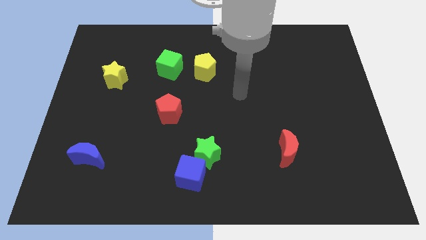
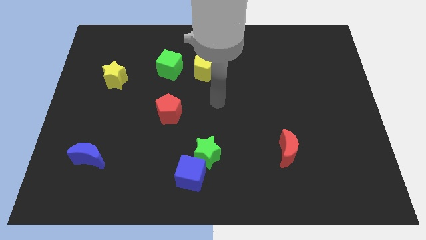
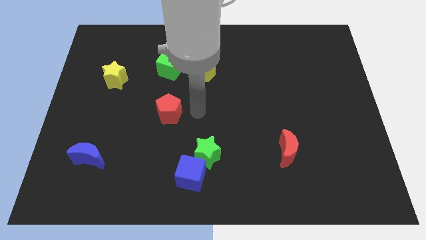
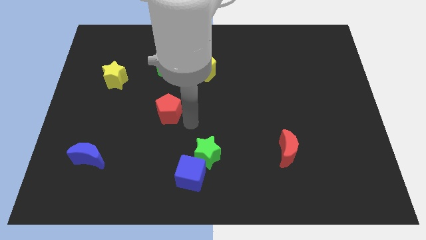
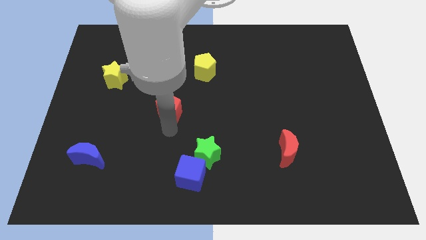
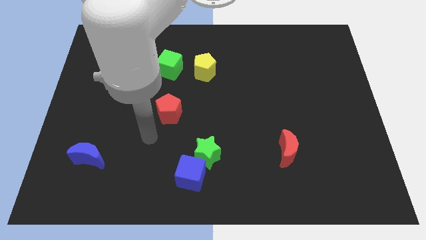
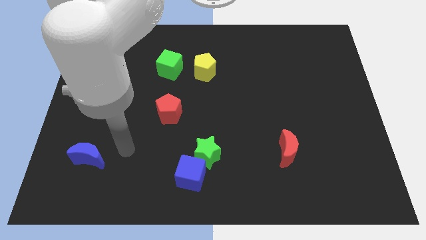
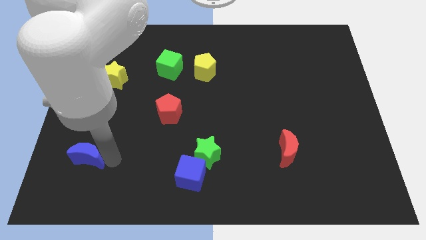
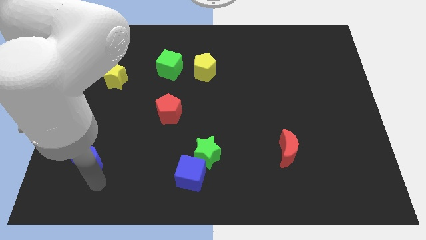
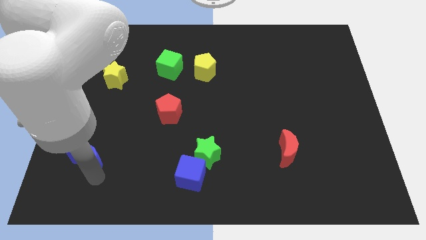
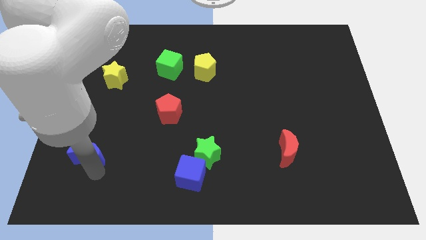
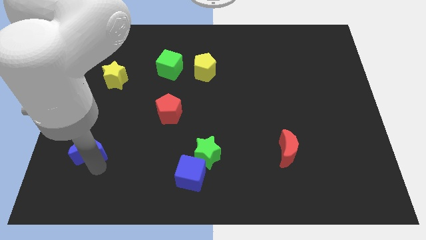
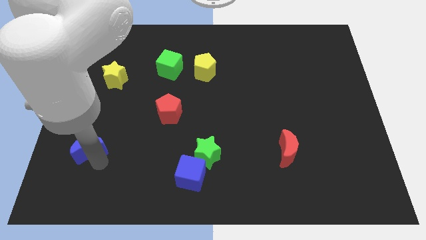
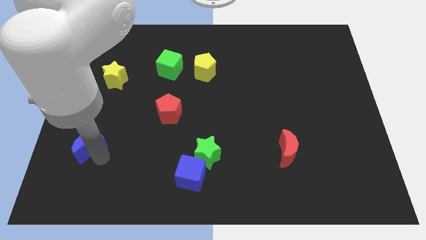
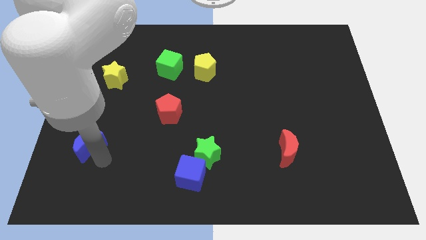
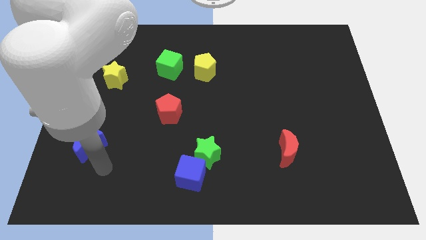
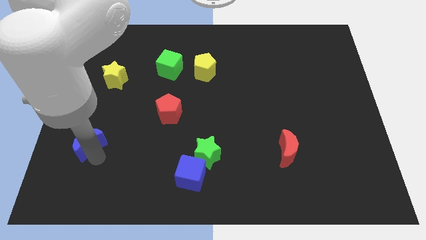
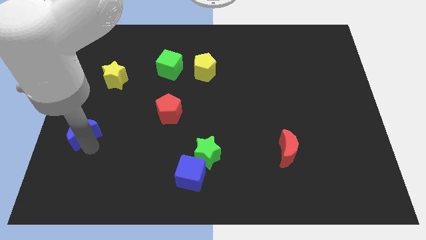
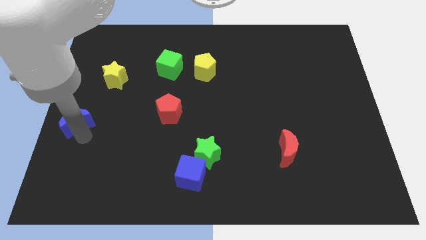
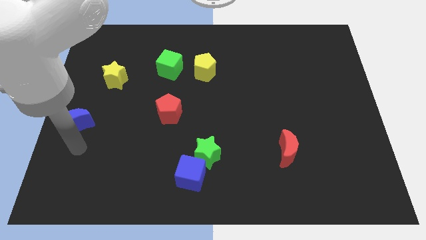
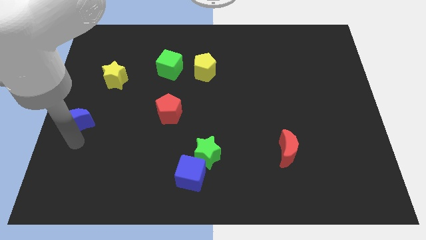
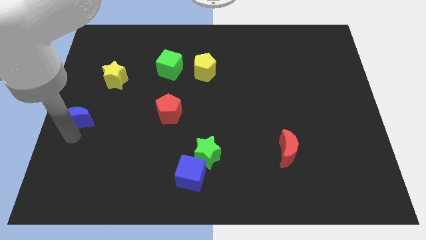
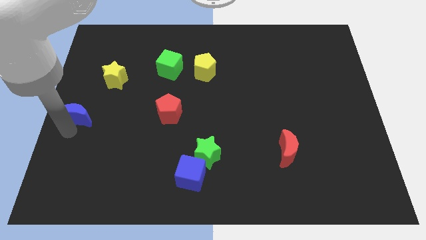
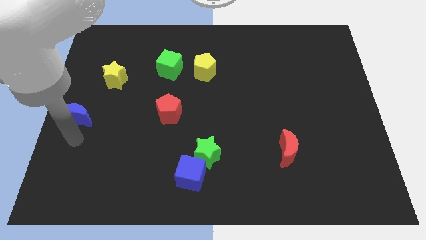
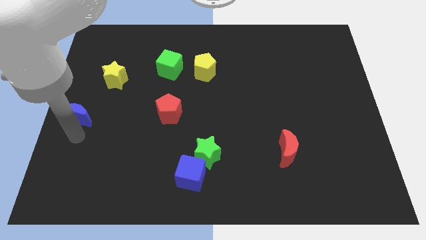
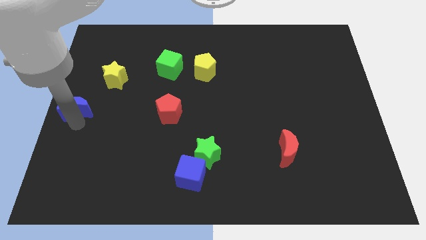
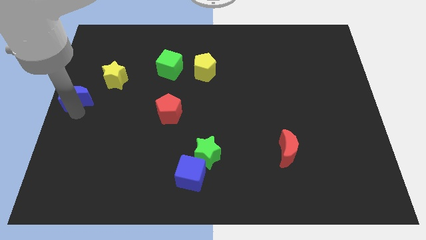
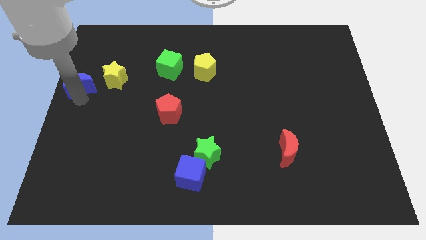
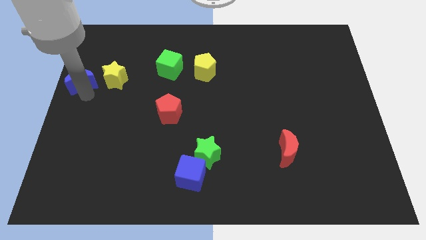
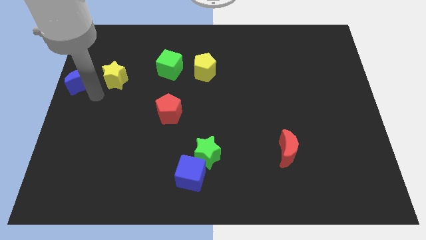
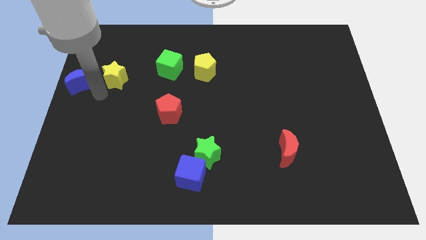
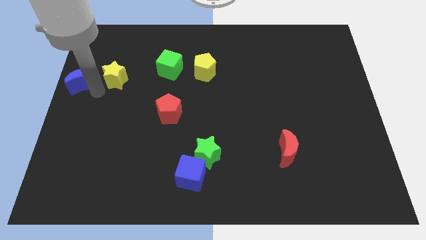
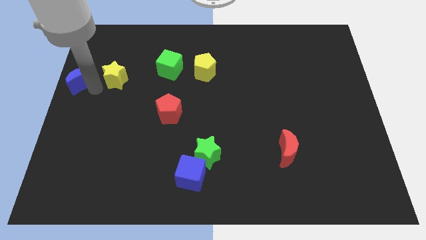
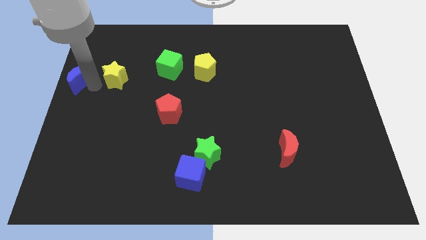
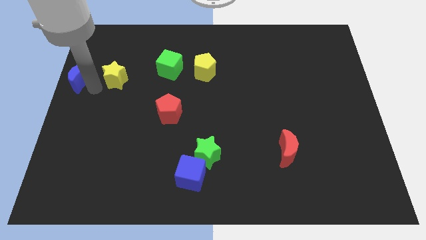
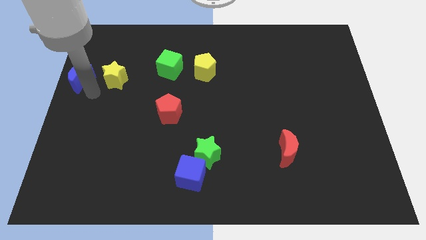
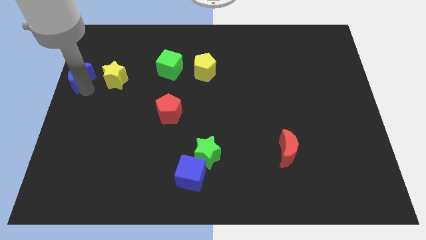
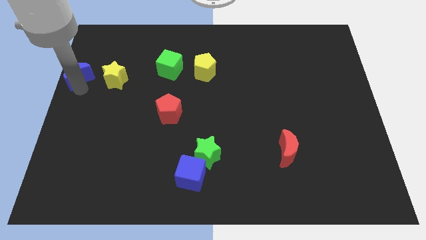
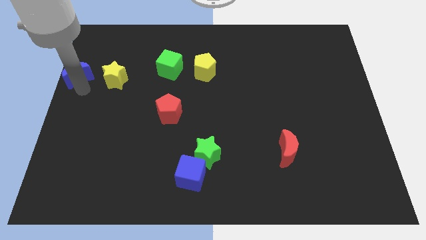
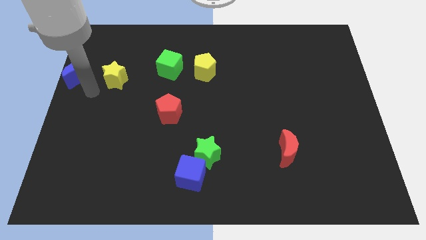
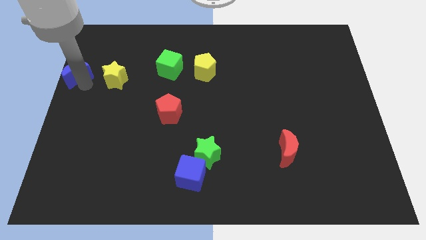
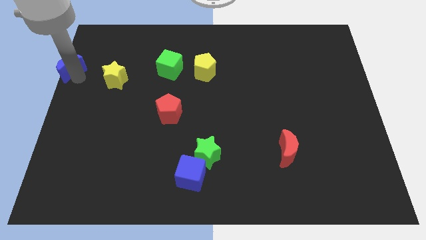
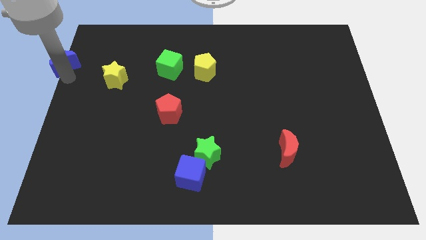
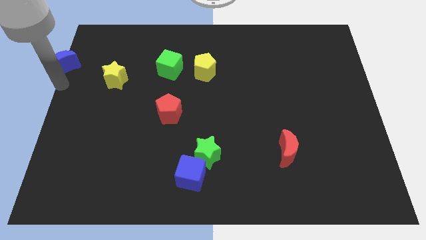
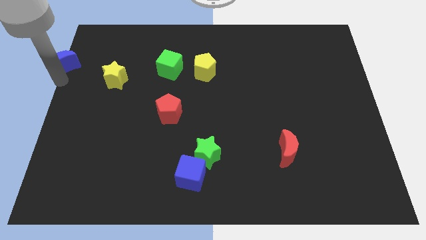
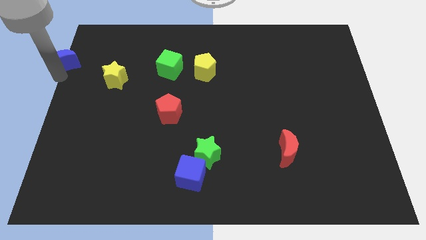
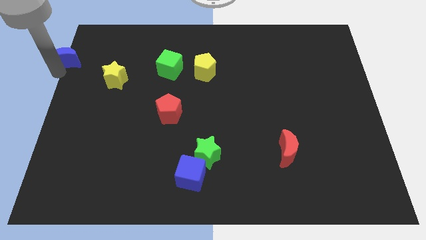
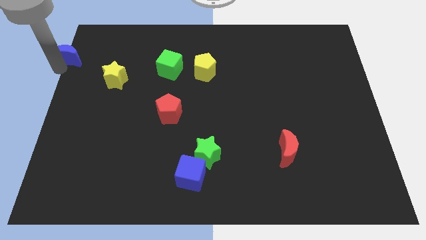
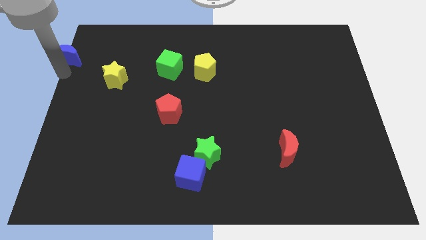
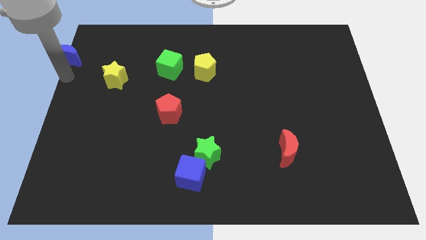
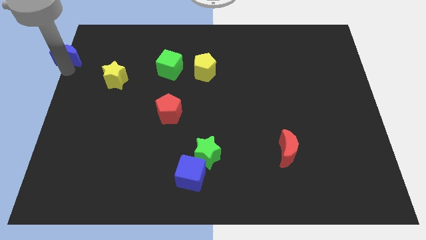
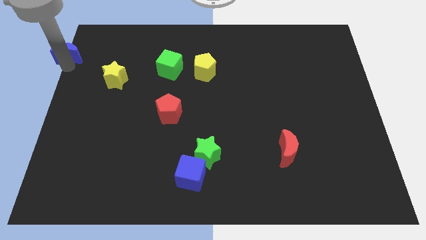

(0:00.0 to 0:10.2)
move the blue moon to the top left of the board

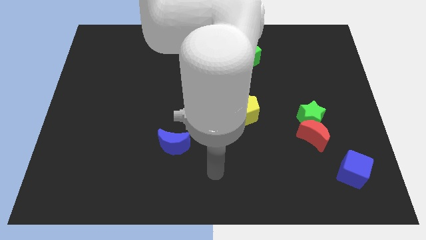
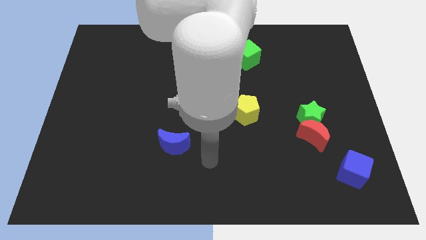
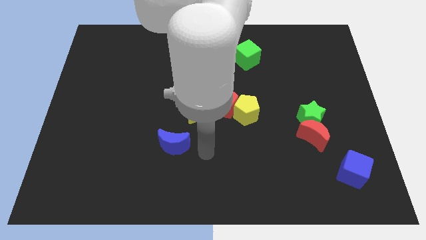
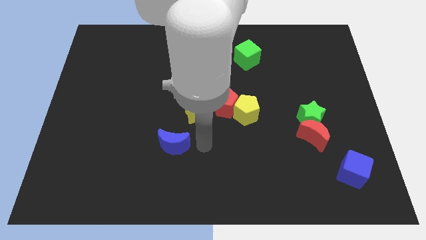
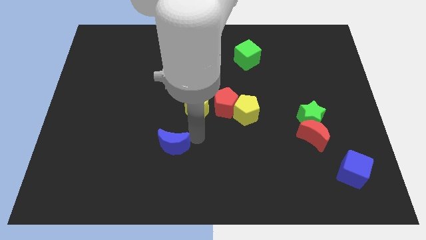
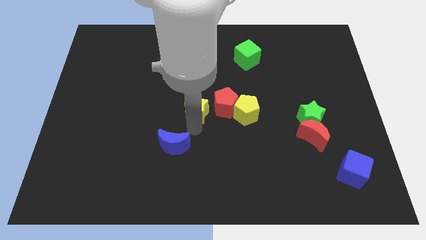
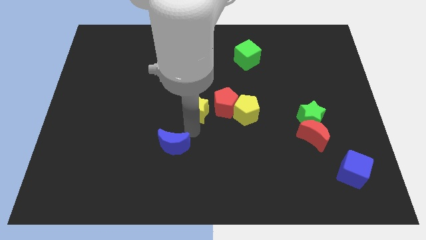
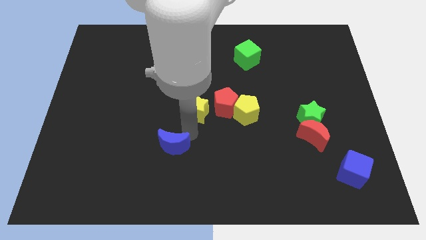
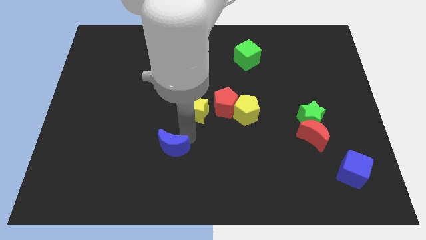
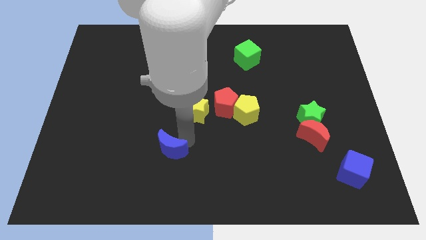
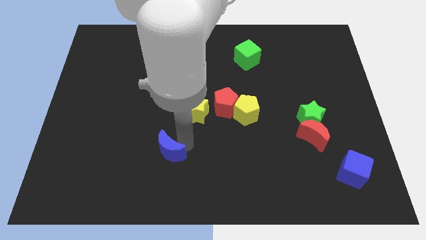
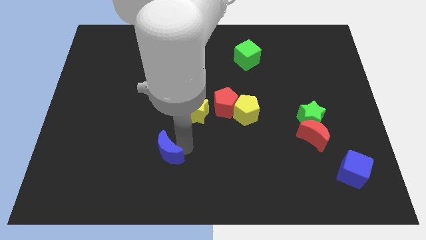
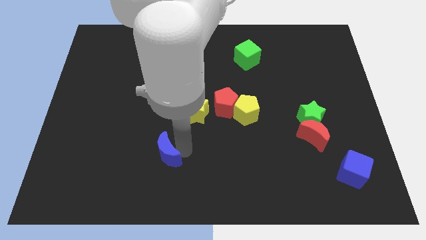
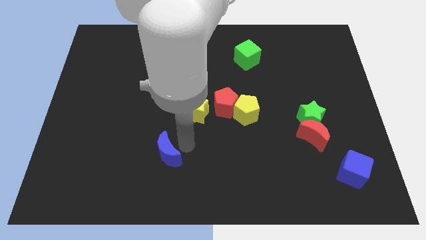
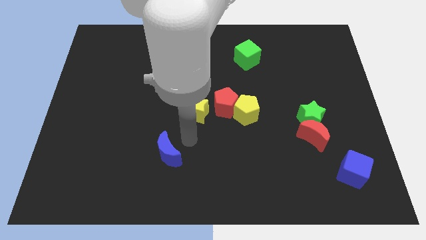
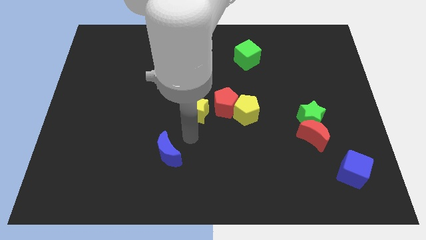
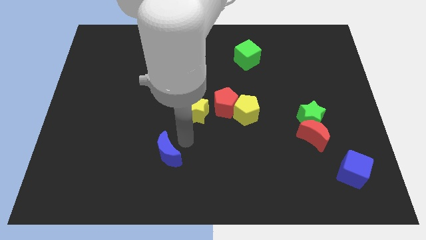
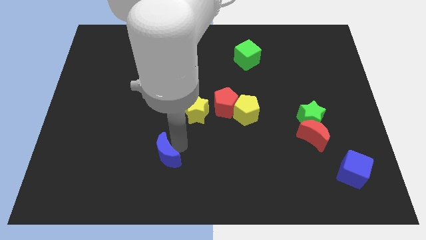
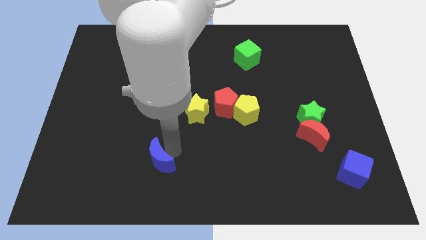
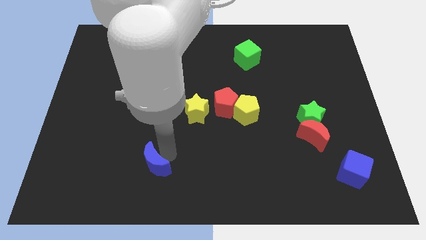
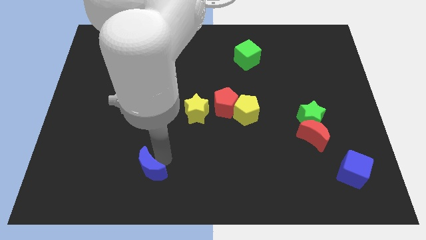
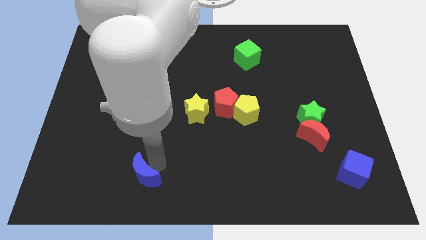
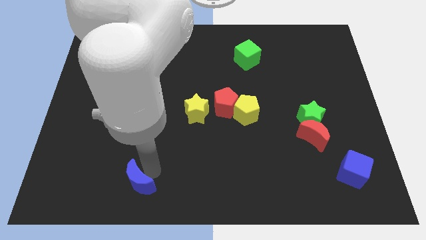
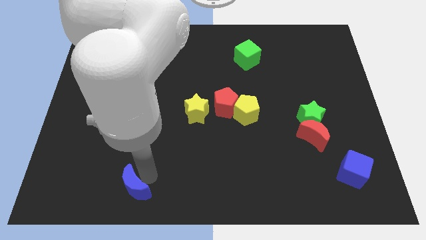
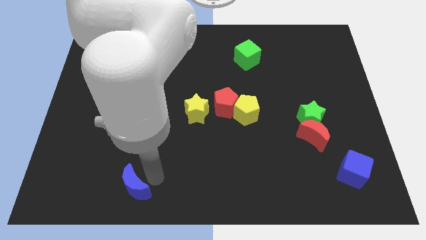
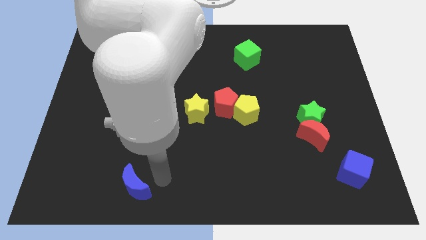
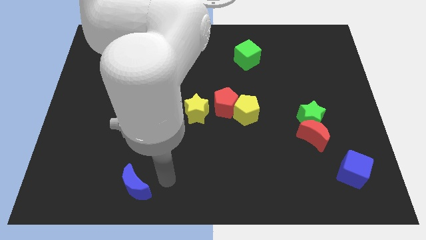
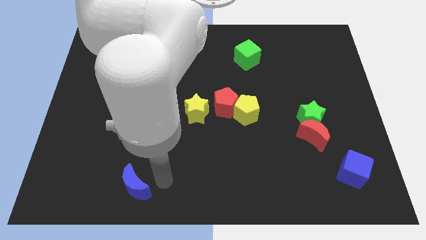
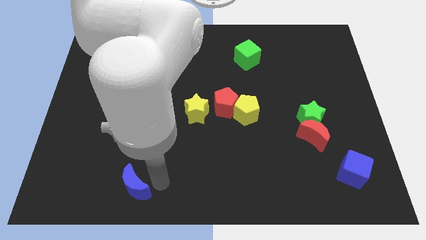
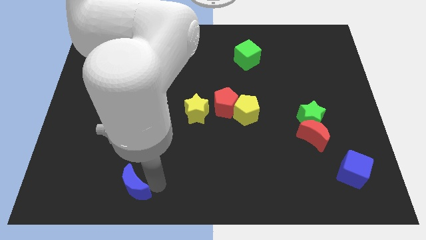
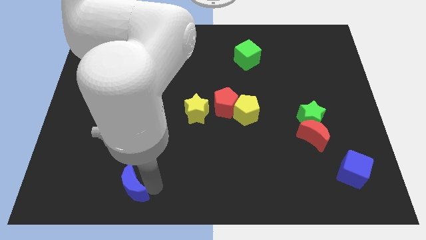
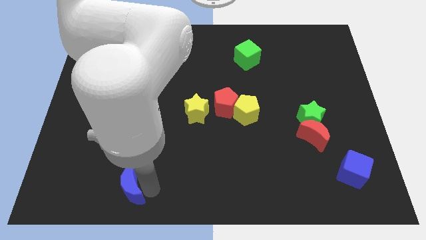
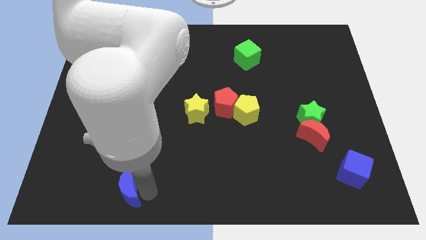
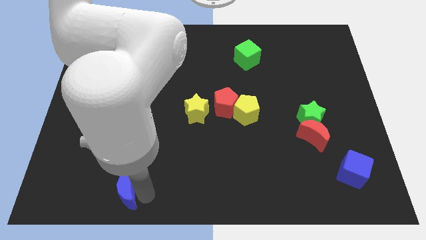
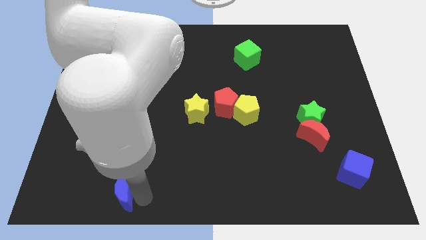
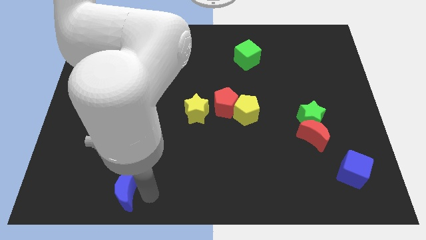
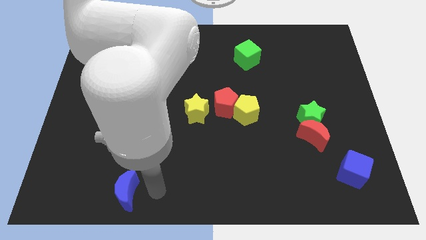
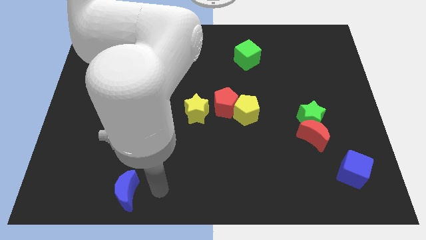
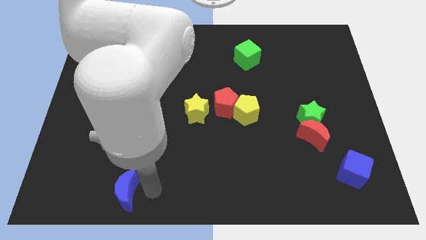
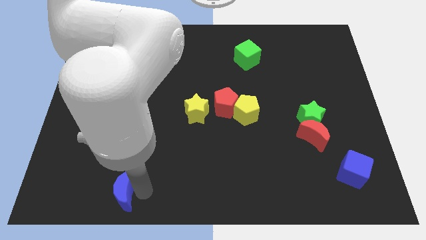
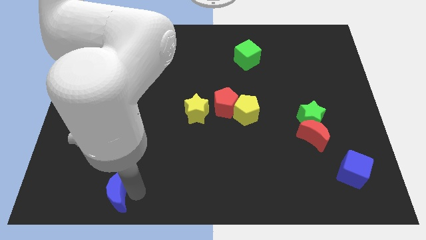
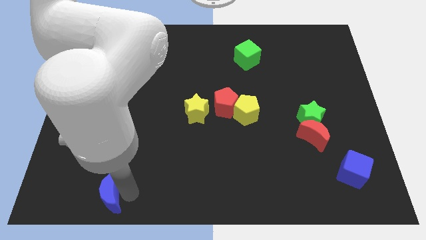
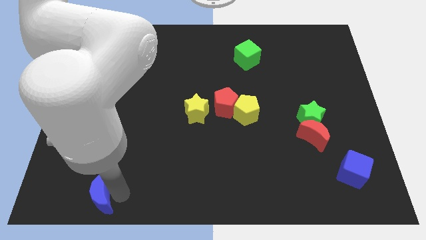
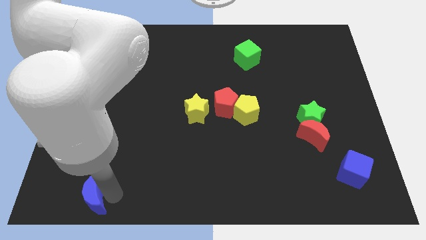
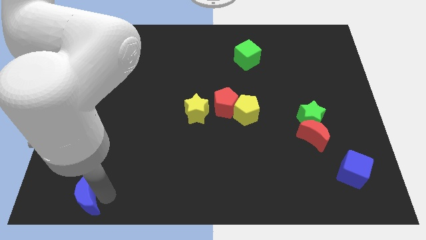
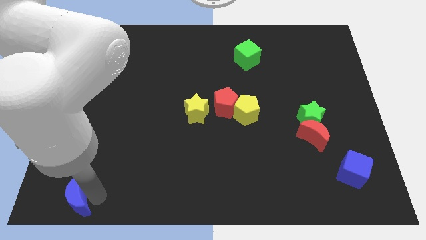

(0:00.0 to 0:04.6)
slide the blue moon to the bottom left
